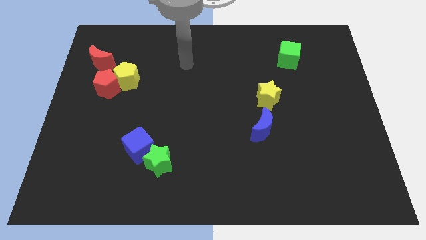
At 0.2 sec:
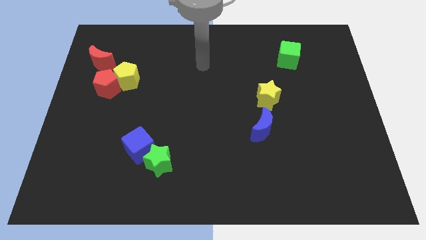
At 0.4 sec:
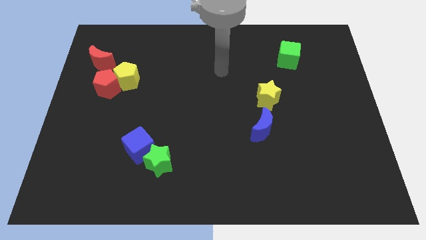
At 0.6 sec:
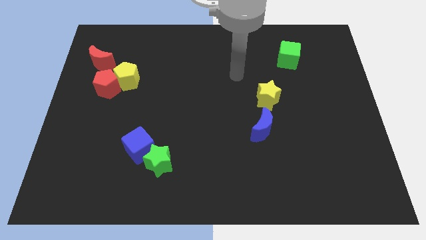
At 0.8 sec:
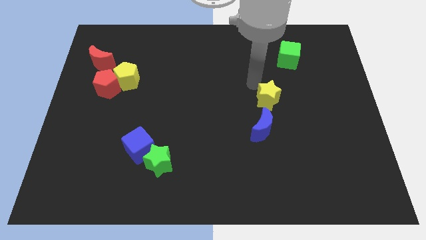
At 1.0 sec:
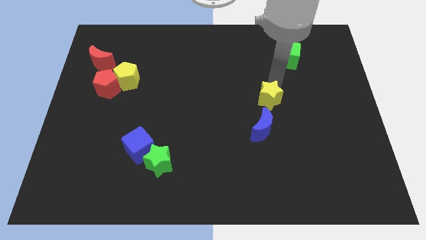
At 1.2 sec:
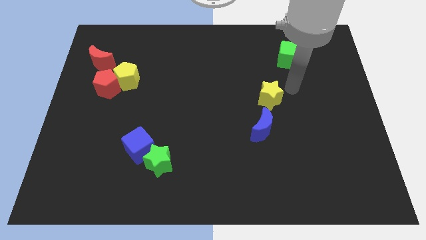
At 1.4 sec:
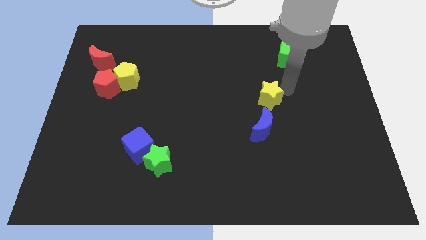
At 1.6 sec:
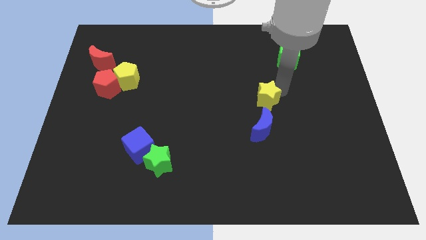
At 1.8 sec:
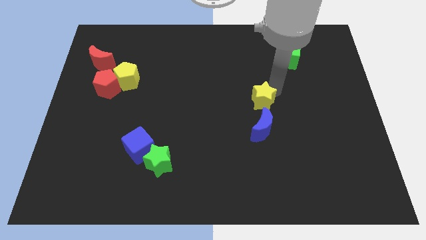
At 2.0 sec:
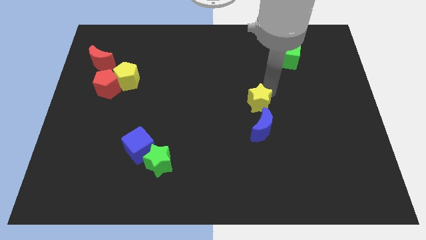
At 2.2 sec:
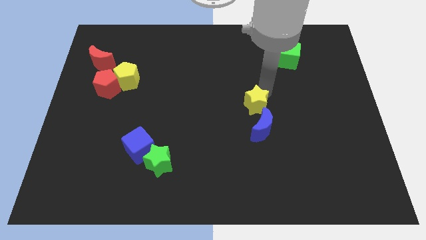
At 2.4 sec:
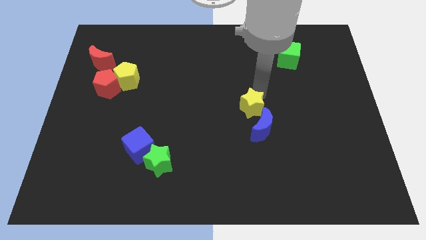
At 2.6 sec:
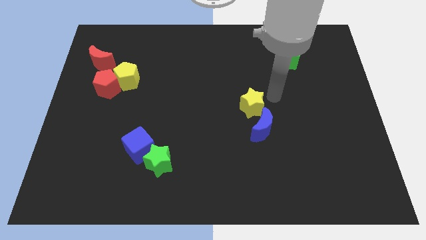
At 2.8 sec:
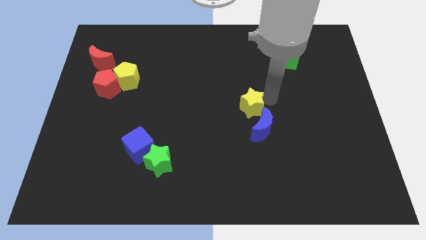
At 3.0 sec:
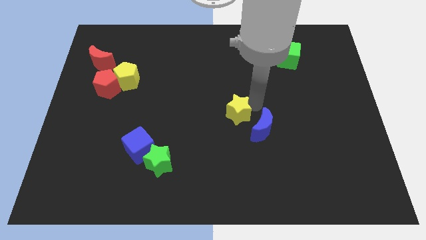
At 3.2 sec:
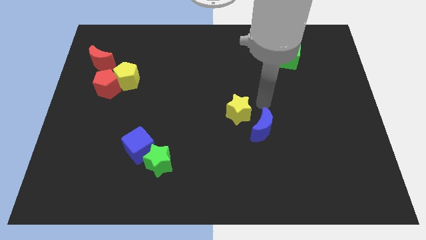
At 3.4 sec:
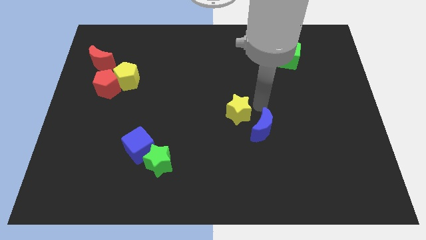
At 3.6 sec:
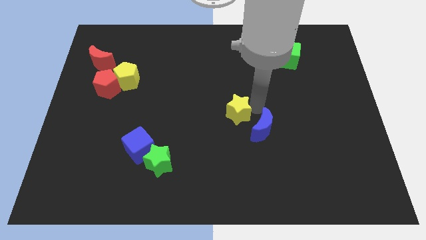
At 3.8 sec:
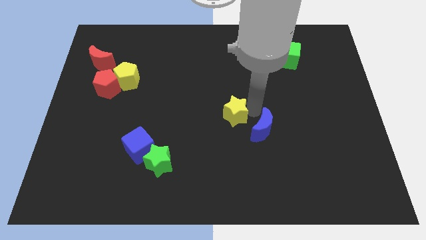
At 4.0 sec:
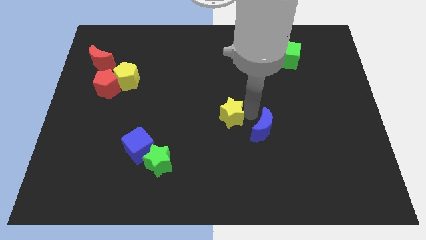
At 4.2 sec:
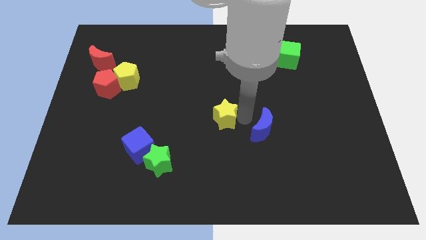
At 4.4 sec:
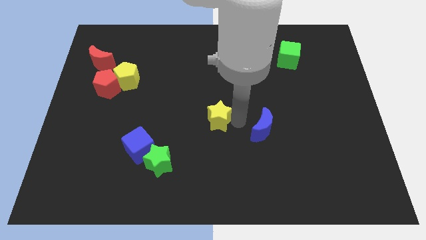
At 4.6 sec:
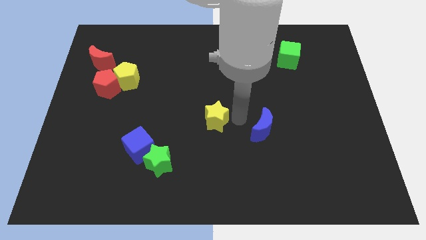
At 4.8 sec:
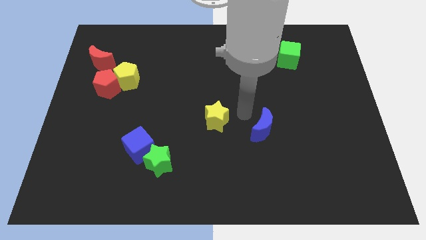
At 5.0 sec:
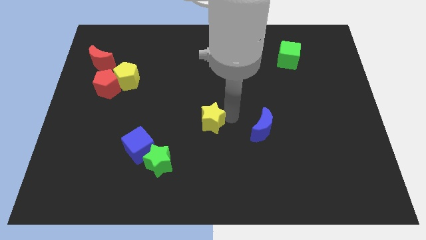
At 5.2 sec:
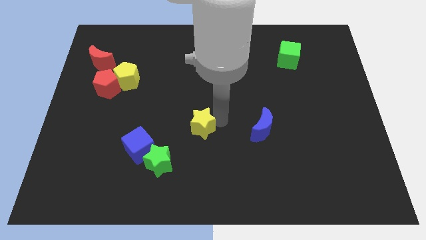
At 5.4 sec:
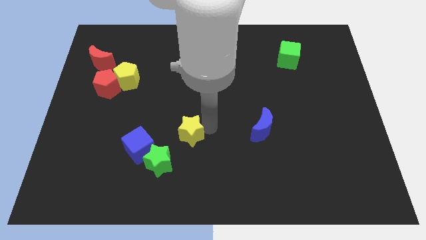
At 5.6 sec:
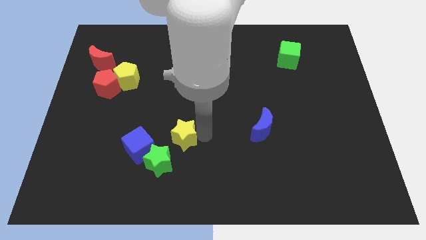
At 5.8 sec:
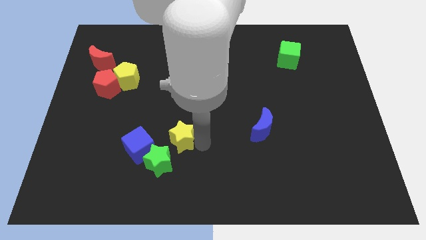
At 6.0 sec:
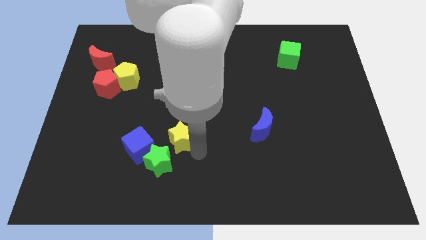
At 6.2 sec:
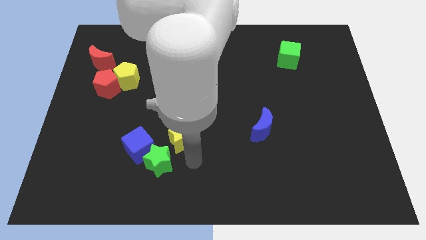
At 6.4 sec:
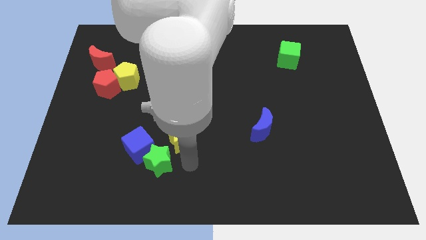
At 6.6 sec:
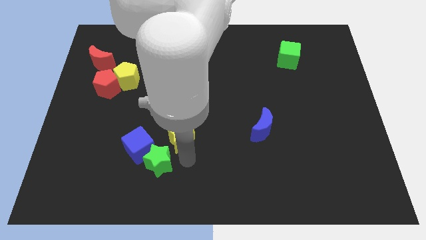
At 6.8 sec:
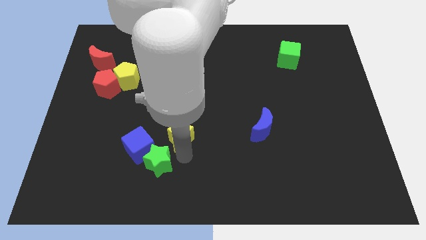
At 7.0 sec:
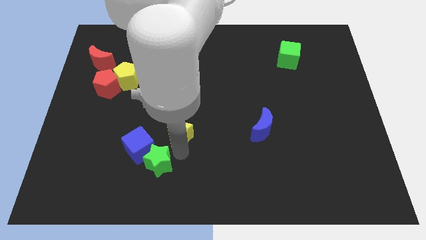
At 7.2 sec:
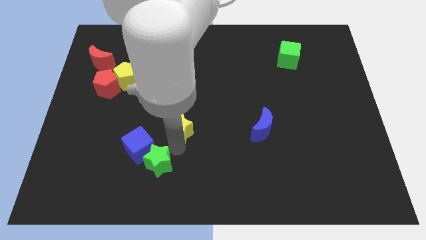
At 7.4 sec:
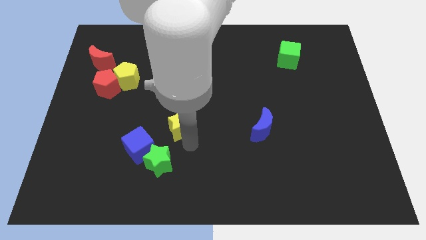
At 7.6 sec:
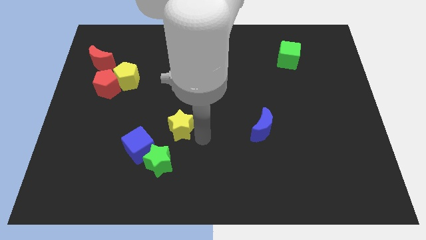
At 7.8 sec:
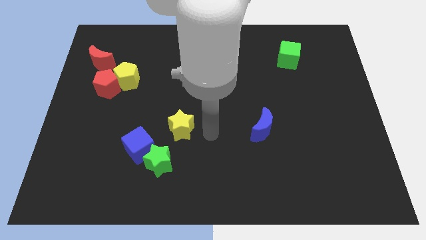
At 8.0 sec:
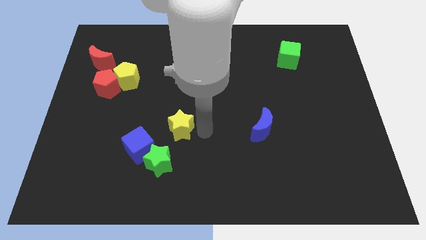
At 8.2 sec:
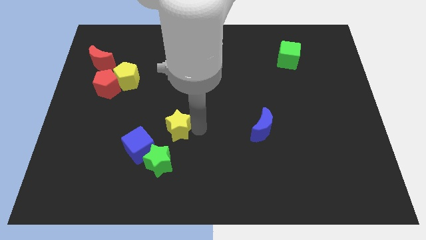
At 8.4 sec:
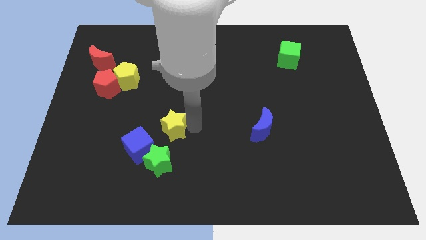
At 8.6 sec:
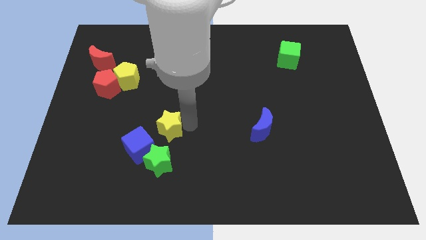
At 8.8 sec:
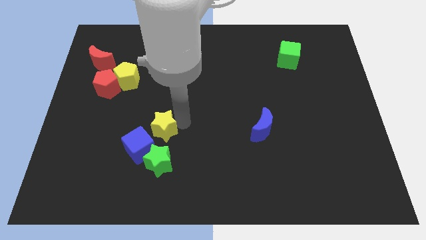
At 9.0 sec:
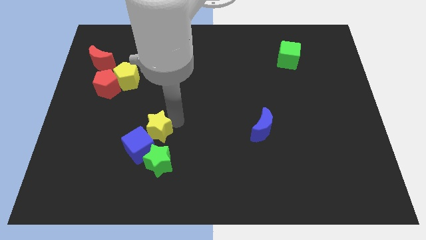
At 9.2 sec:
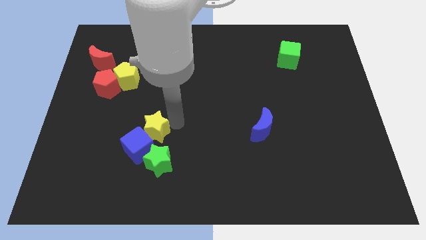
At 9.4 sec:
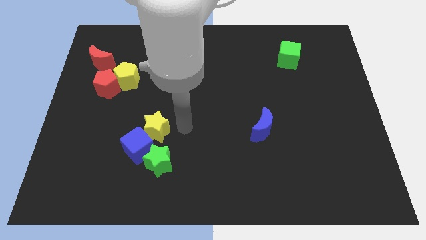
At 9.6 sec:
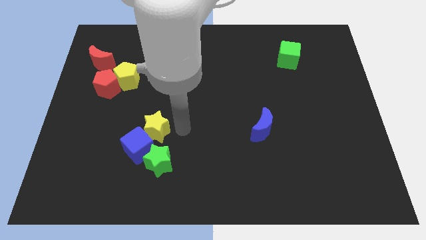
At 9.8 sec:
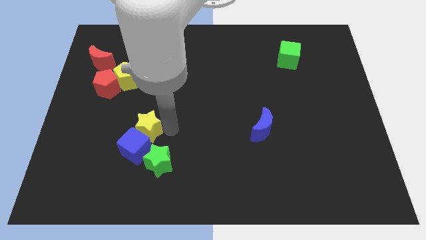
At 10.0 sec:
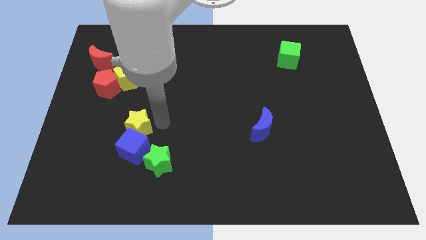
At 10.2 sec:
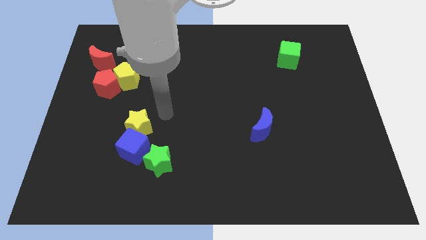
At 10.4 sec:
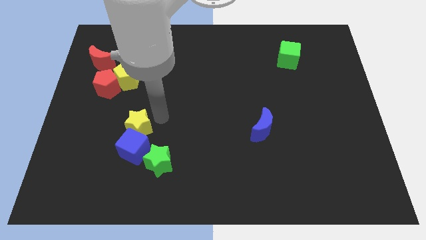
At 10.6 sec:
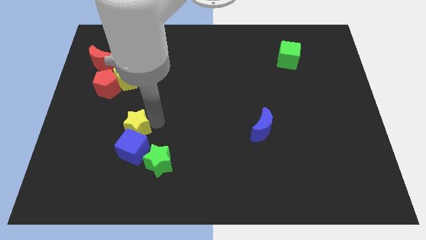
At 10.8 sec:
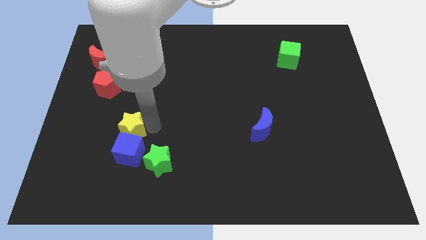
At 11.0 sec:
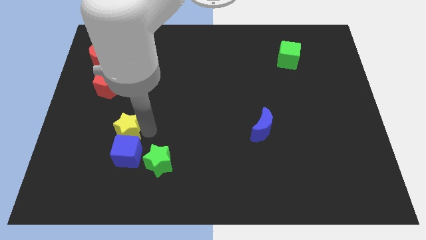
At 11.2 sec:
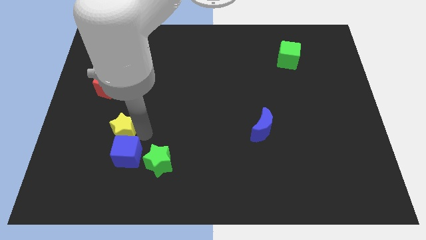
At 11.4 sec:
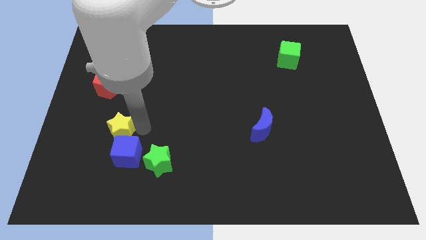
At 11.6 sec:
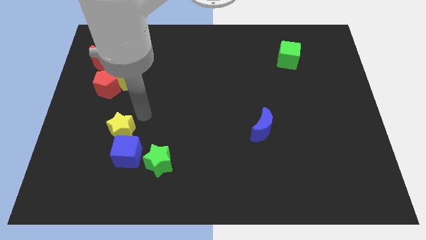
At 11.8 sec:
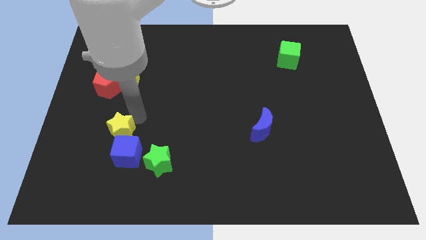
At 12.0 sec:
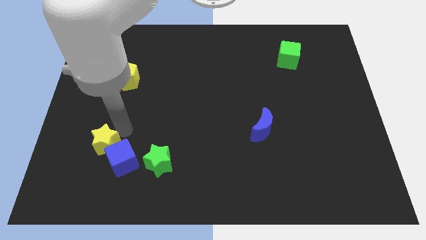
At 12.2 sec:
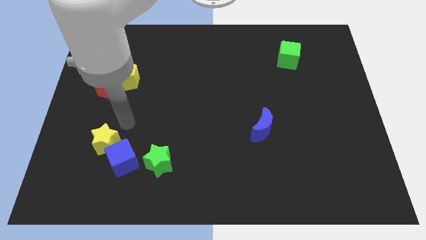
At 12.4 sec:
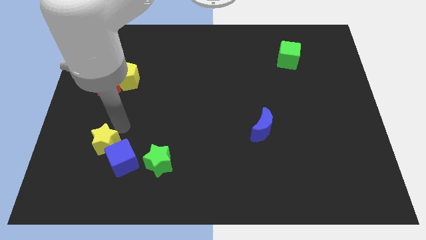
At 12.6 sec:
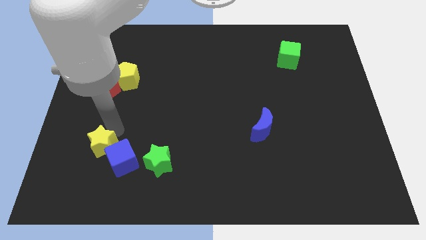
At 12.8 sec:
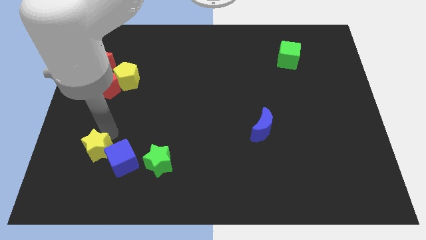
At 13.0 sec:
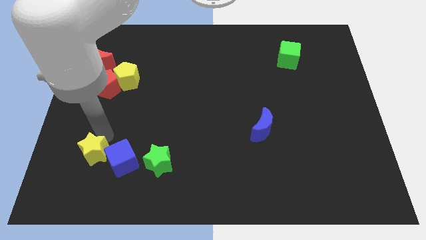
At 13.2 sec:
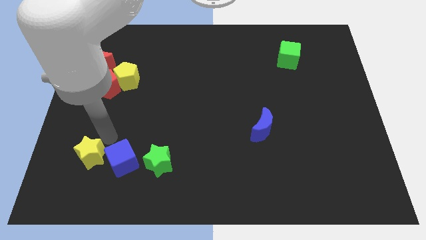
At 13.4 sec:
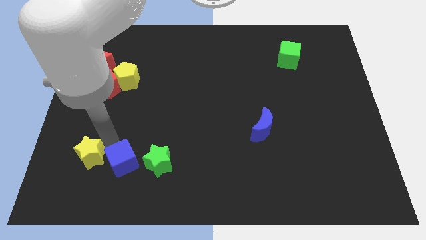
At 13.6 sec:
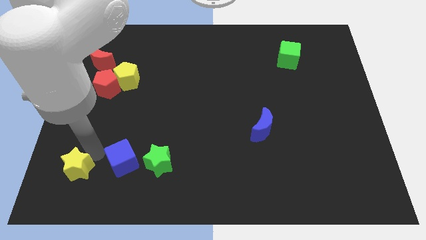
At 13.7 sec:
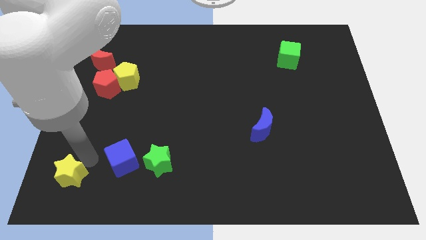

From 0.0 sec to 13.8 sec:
move the yellow star to the lower left corner
